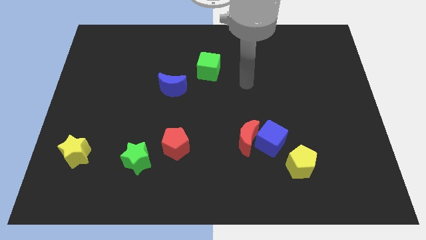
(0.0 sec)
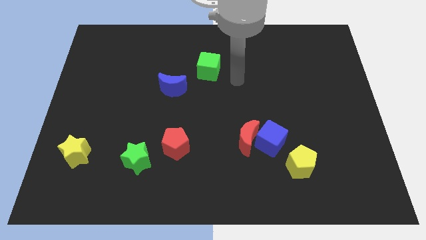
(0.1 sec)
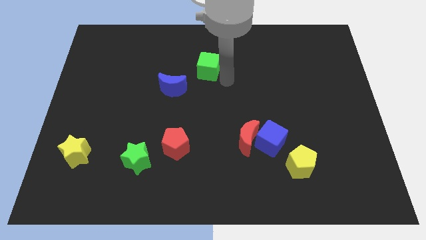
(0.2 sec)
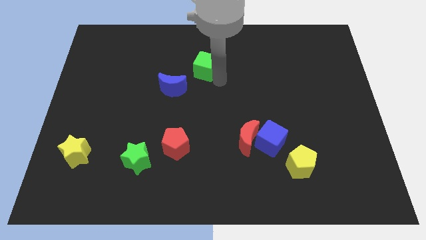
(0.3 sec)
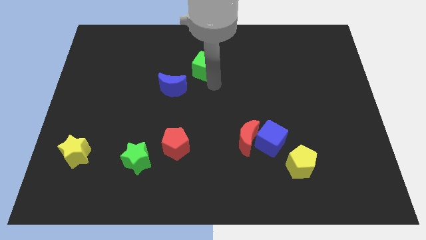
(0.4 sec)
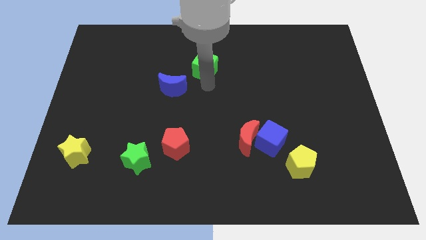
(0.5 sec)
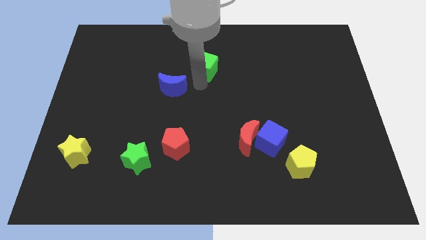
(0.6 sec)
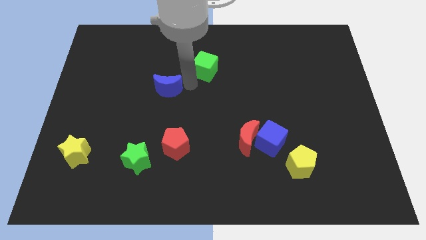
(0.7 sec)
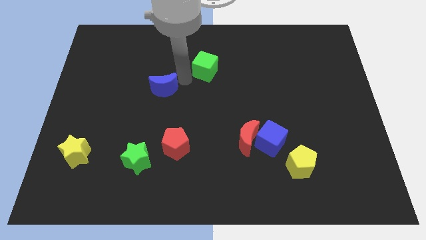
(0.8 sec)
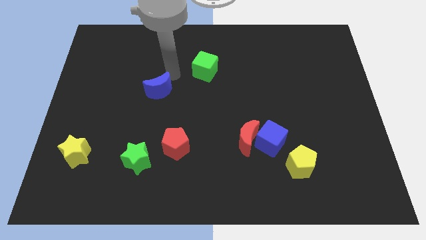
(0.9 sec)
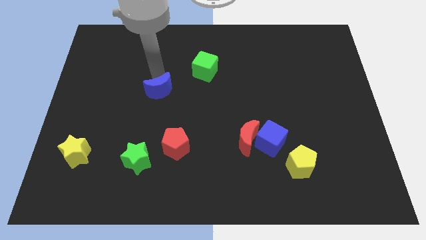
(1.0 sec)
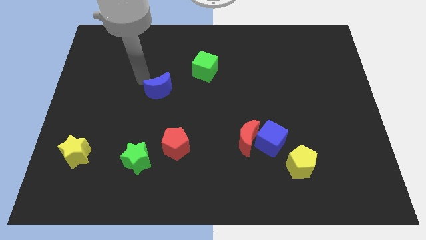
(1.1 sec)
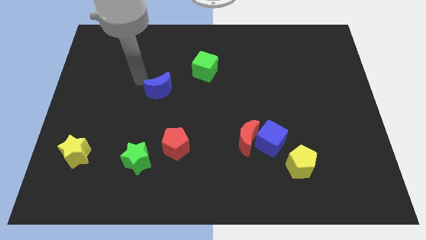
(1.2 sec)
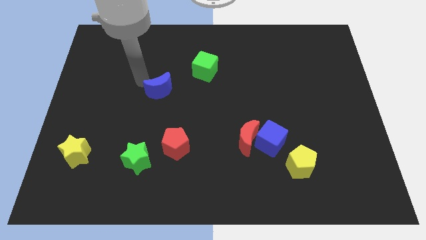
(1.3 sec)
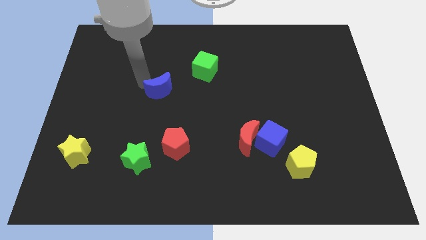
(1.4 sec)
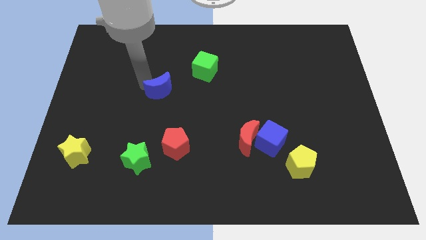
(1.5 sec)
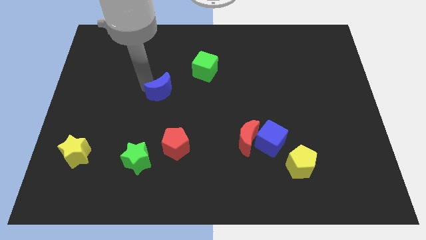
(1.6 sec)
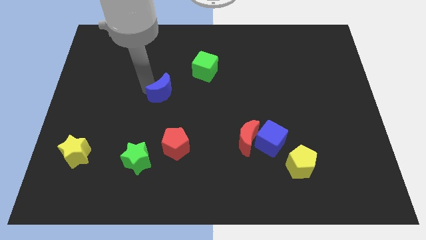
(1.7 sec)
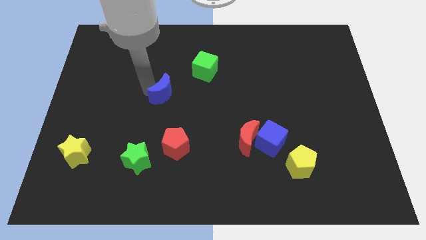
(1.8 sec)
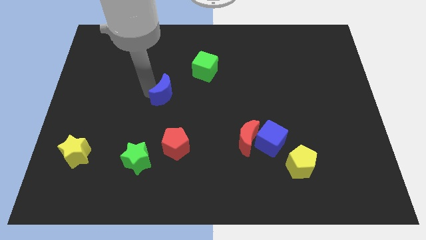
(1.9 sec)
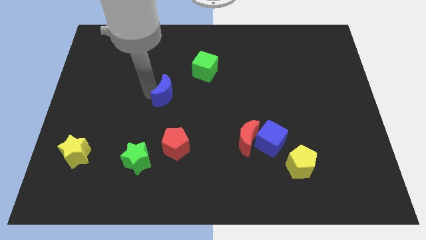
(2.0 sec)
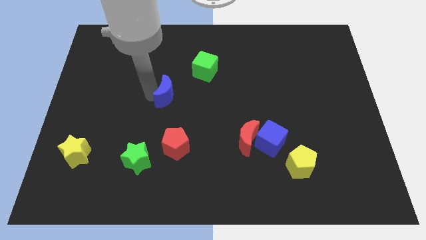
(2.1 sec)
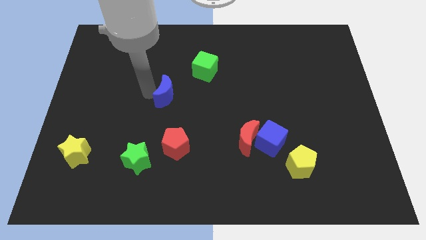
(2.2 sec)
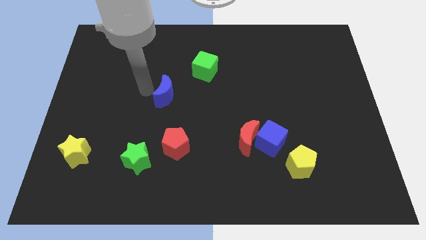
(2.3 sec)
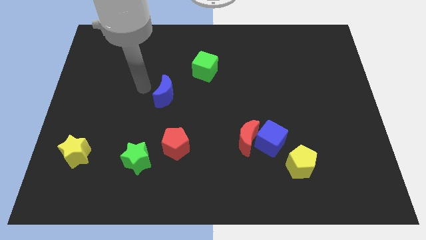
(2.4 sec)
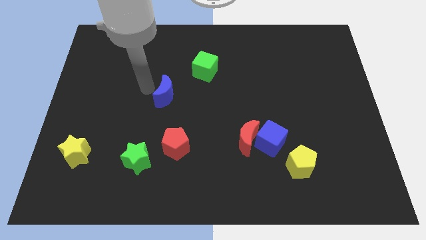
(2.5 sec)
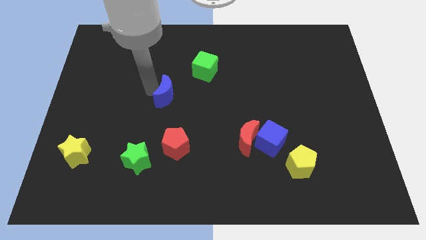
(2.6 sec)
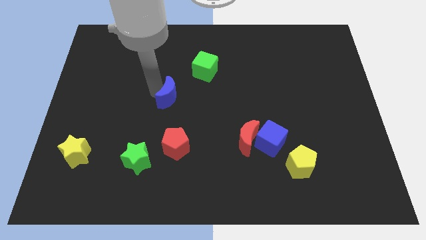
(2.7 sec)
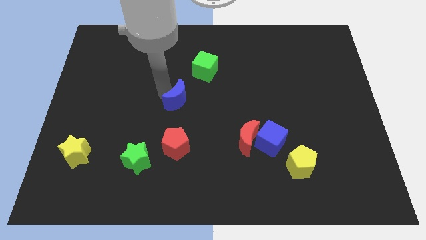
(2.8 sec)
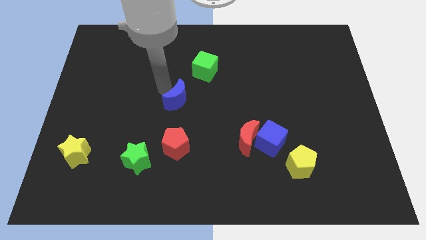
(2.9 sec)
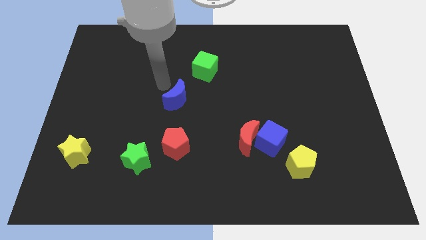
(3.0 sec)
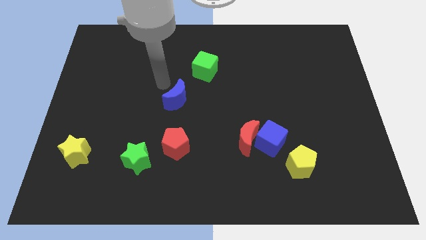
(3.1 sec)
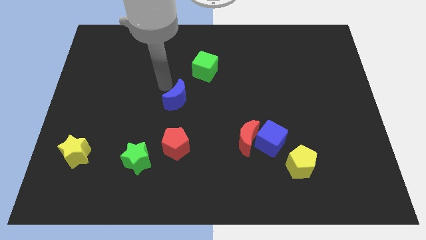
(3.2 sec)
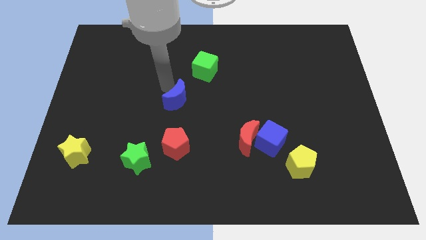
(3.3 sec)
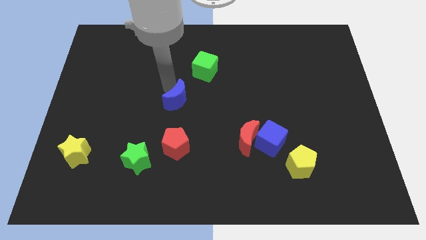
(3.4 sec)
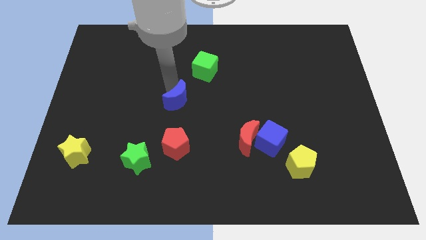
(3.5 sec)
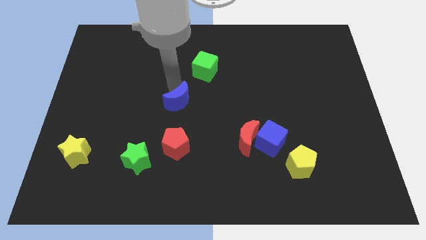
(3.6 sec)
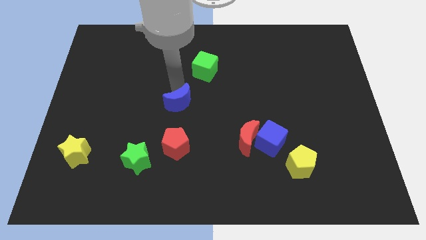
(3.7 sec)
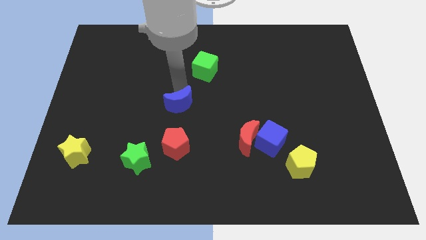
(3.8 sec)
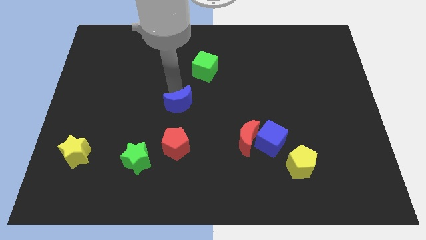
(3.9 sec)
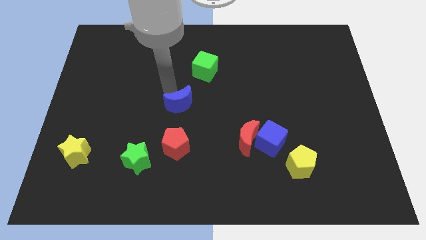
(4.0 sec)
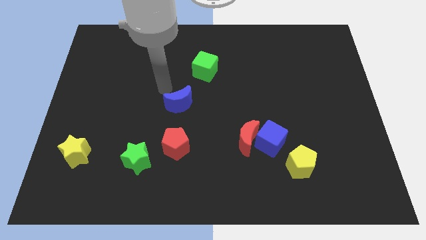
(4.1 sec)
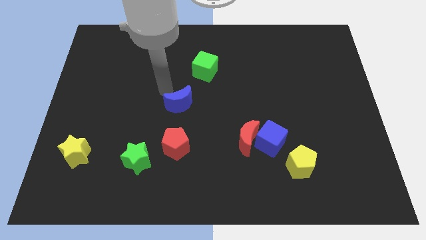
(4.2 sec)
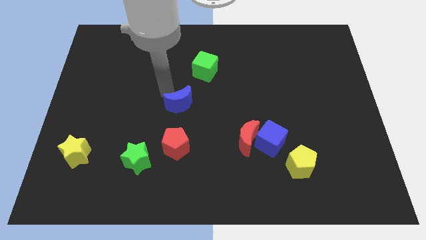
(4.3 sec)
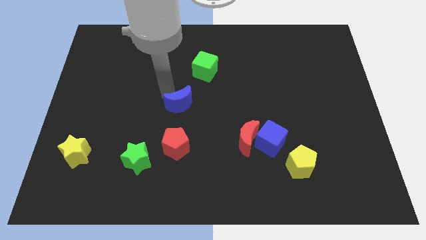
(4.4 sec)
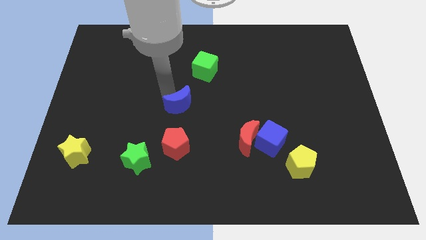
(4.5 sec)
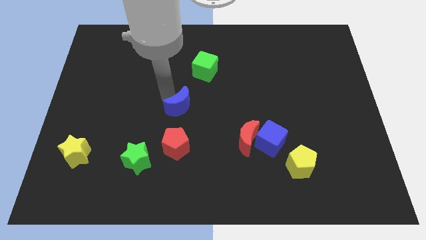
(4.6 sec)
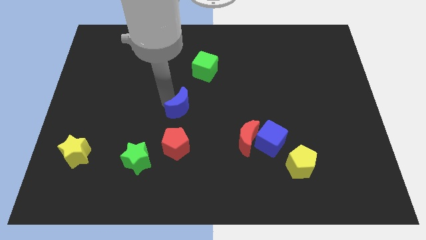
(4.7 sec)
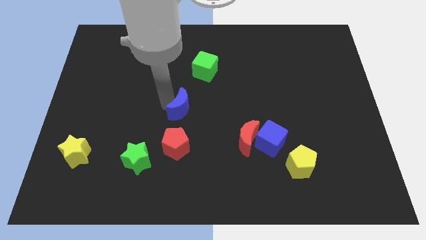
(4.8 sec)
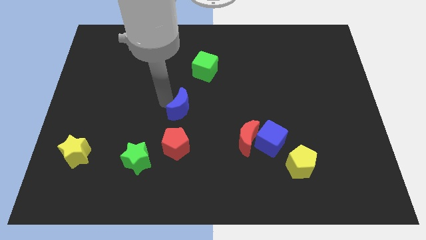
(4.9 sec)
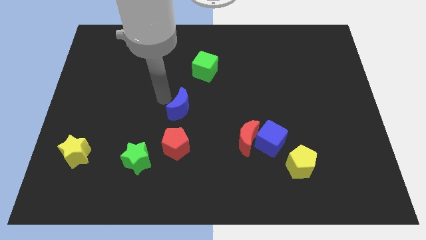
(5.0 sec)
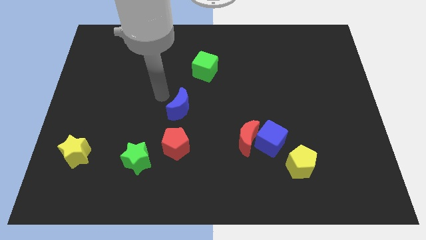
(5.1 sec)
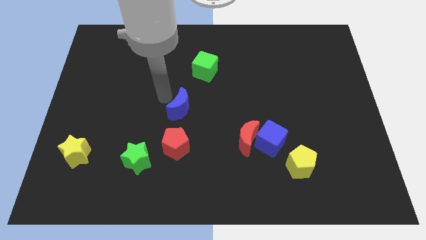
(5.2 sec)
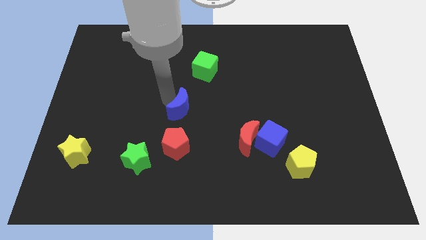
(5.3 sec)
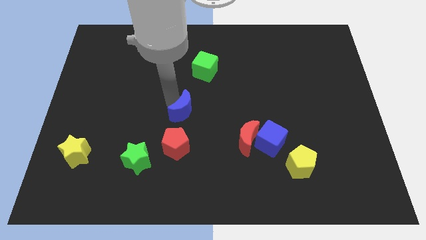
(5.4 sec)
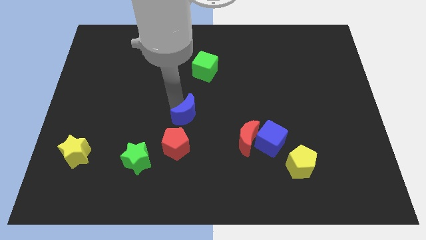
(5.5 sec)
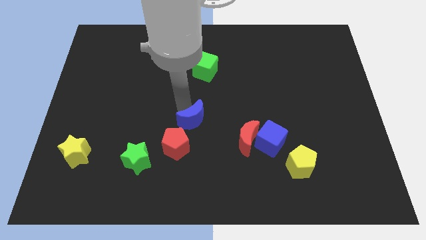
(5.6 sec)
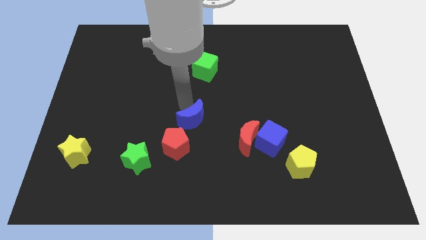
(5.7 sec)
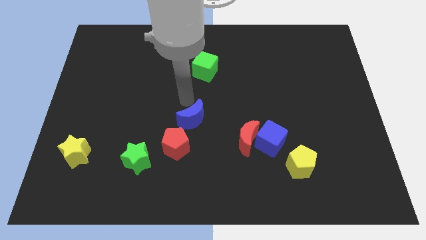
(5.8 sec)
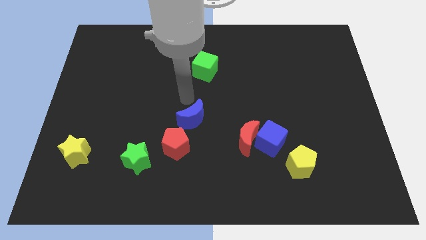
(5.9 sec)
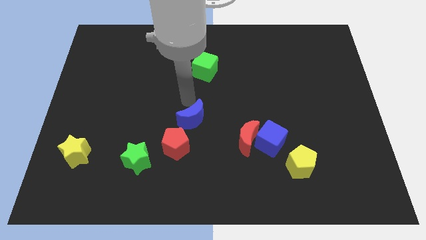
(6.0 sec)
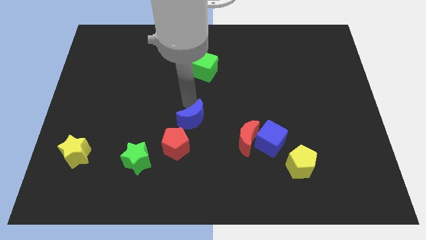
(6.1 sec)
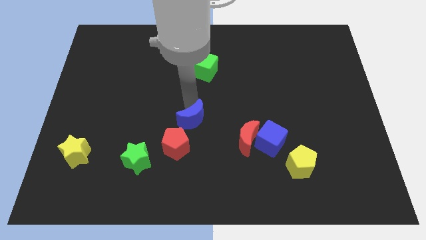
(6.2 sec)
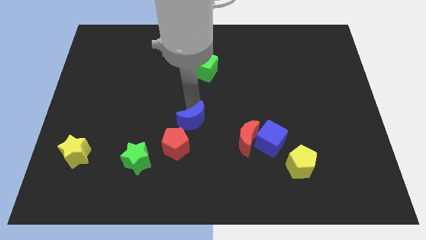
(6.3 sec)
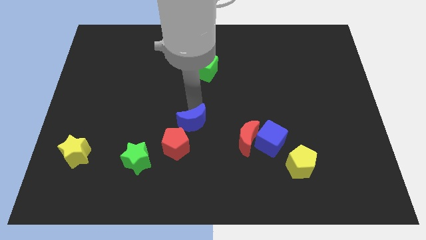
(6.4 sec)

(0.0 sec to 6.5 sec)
put the blue moon to the left side of the red moon

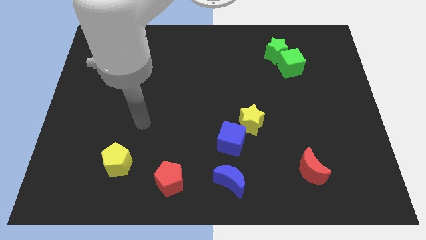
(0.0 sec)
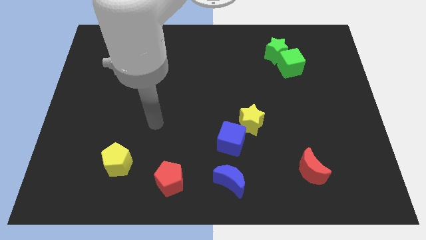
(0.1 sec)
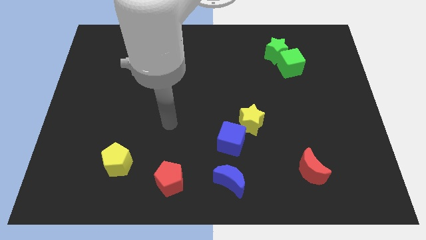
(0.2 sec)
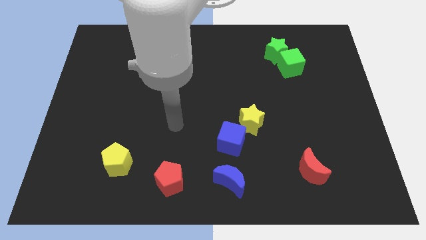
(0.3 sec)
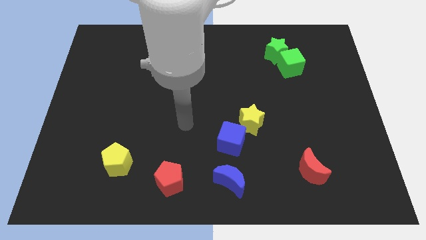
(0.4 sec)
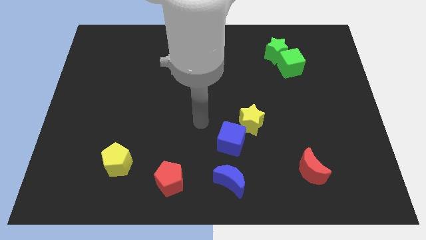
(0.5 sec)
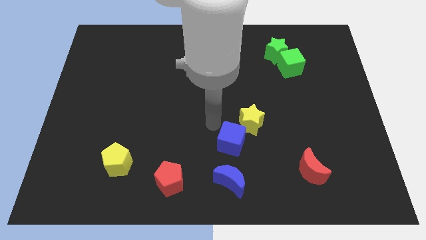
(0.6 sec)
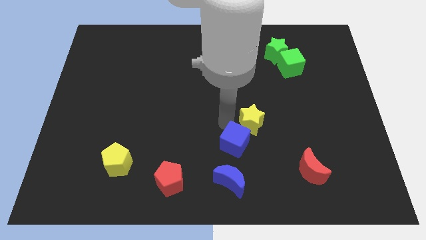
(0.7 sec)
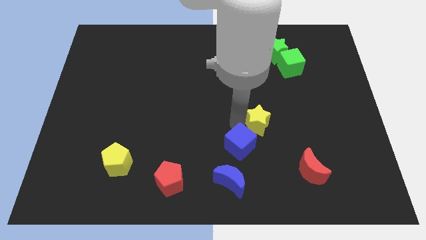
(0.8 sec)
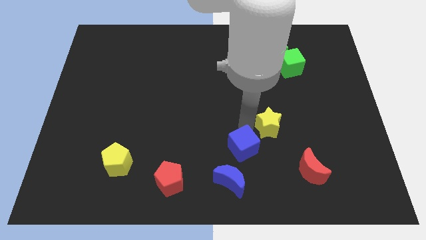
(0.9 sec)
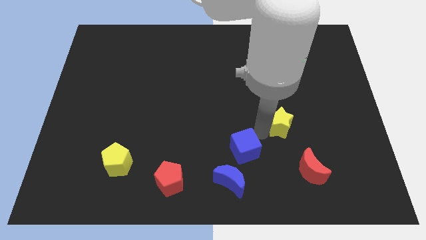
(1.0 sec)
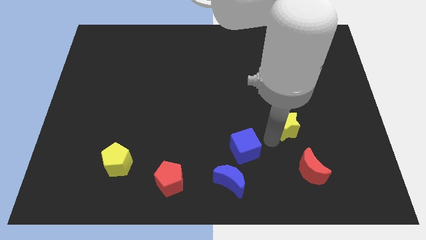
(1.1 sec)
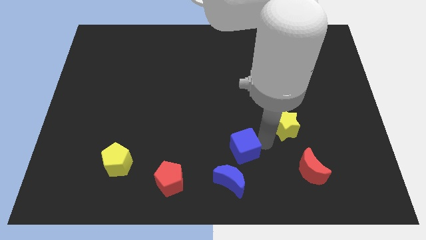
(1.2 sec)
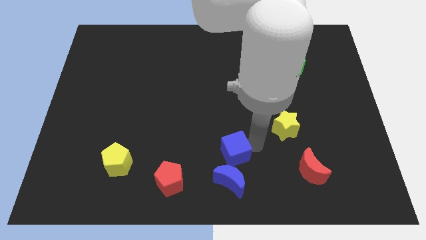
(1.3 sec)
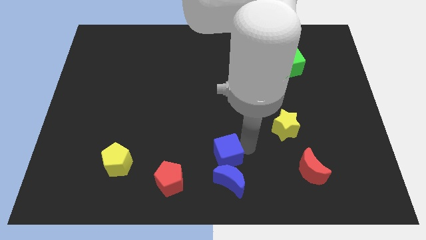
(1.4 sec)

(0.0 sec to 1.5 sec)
put the blue cube to the top left side of the blue moon
